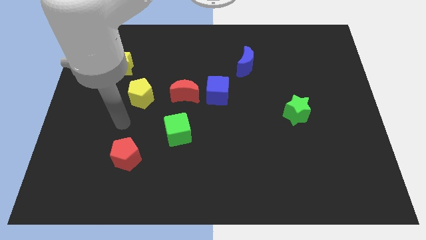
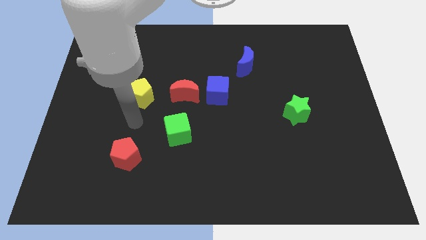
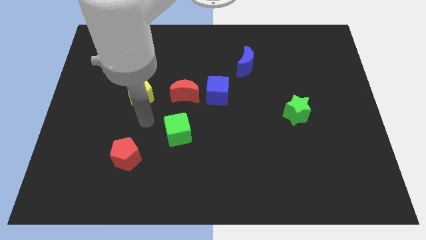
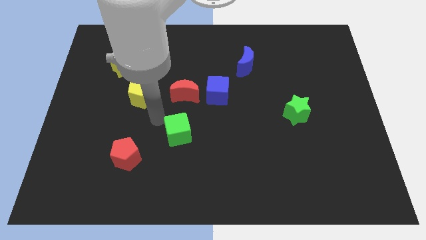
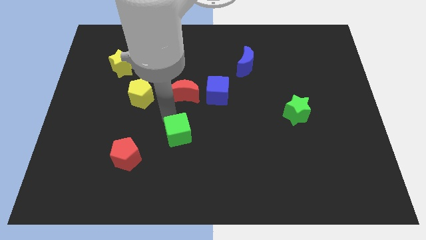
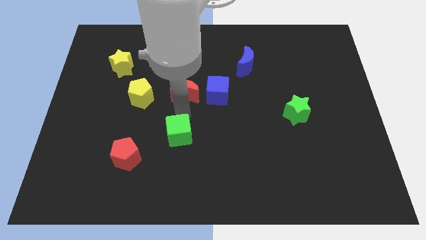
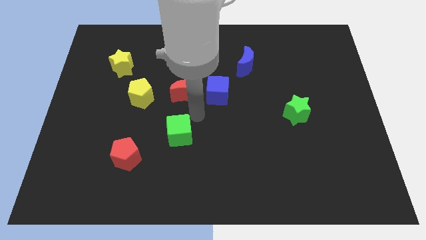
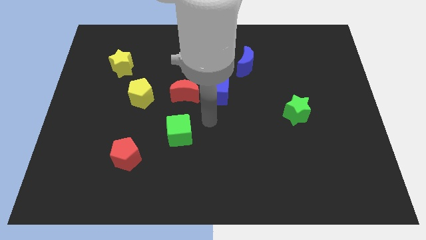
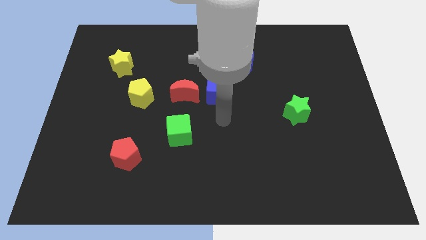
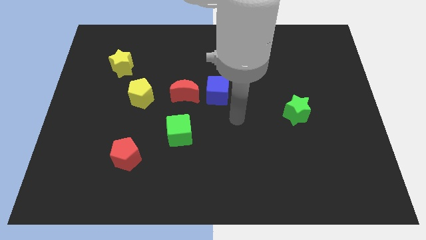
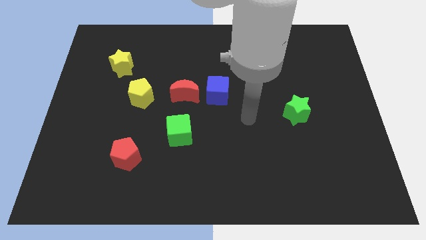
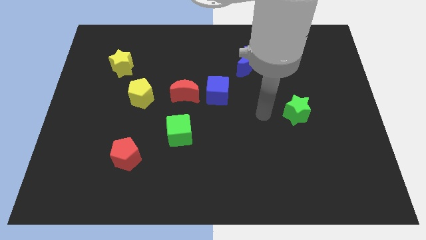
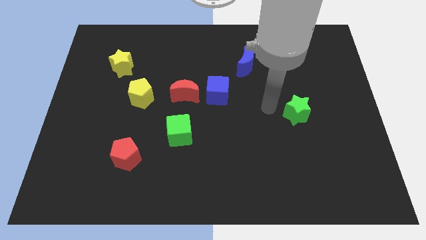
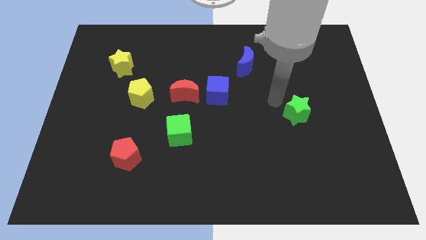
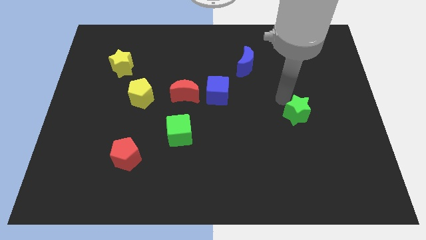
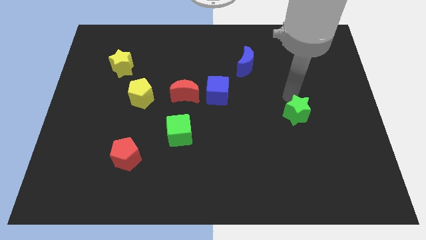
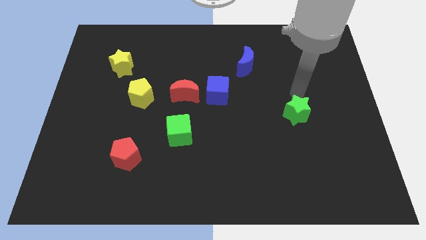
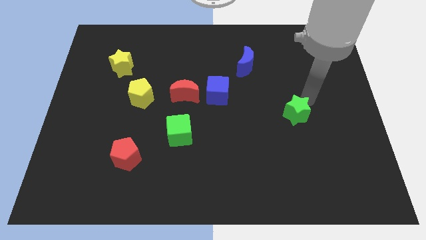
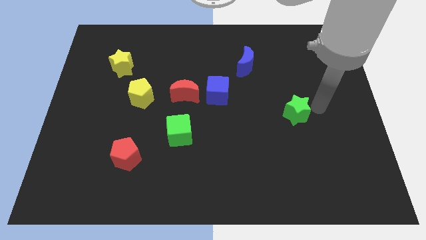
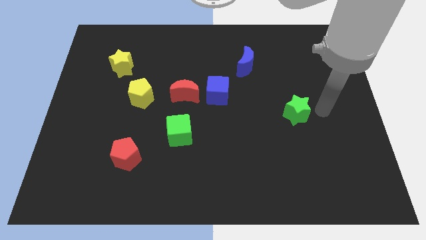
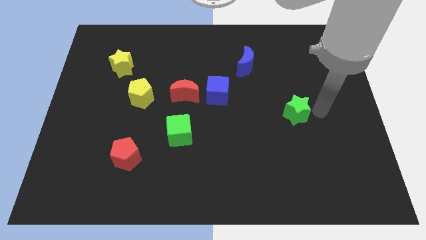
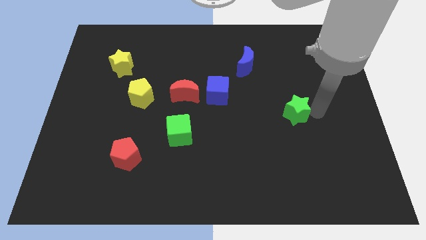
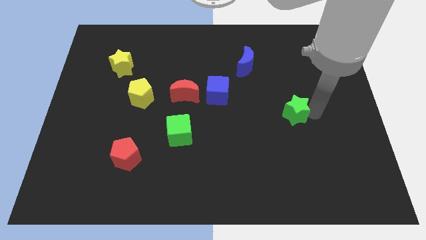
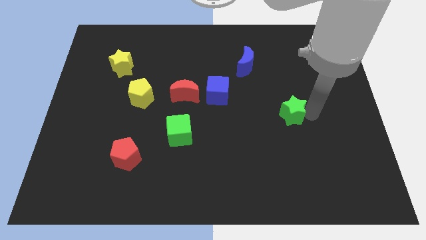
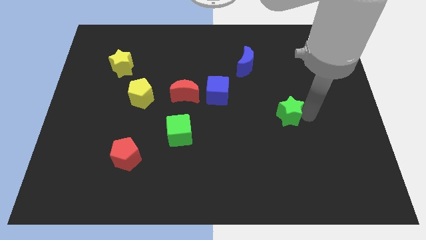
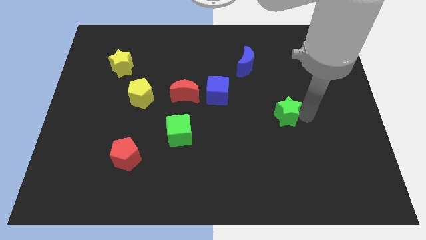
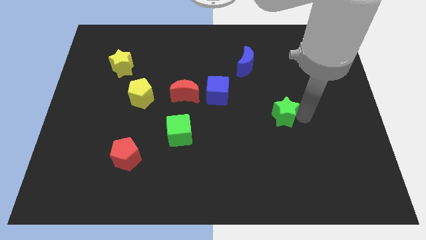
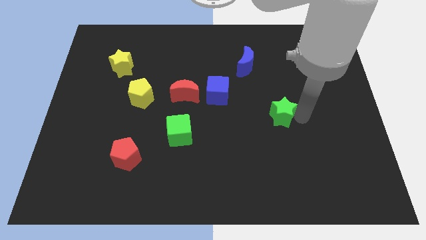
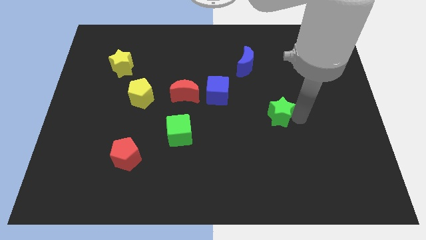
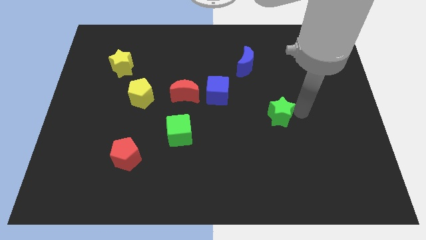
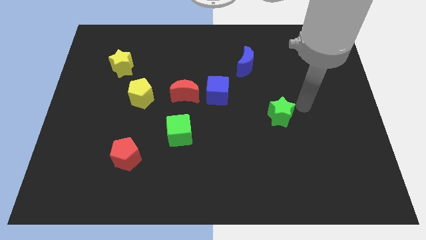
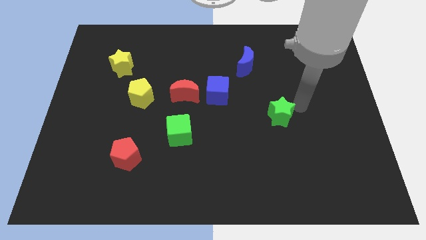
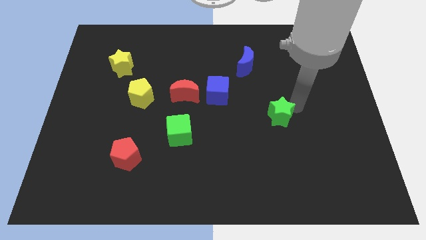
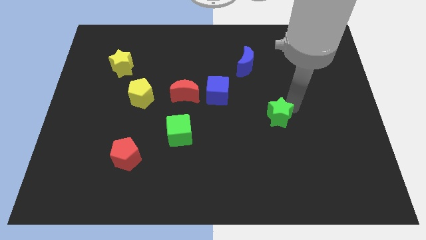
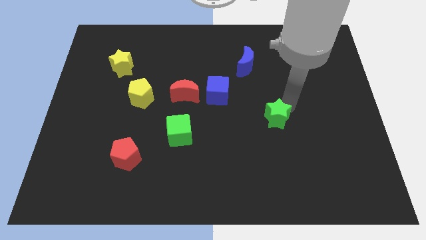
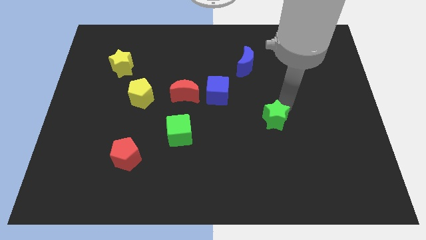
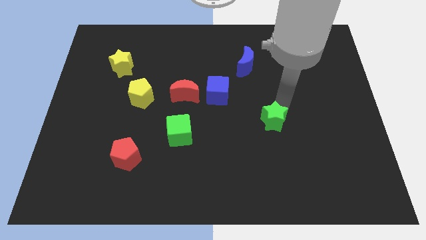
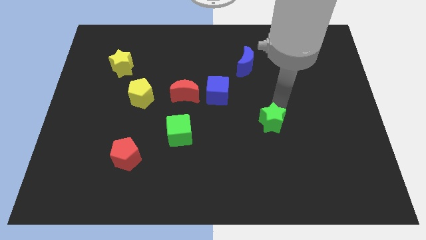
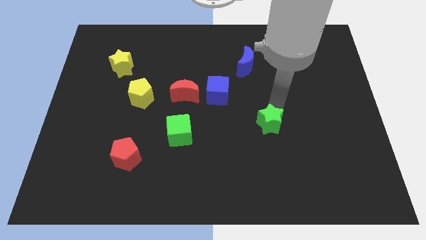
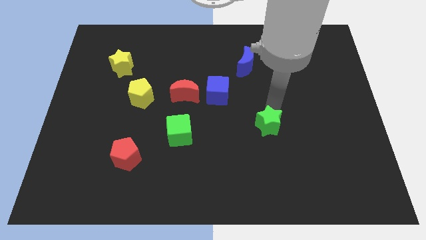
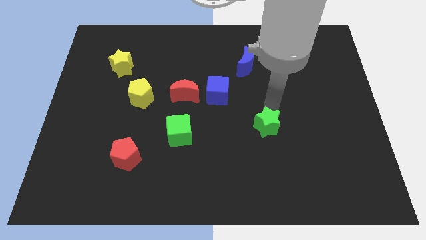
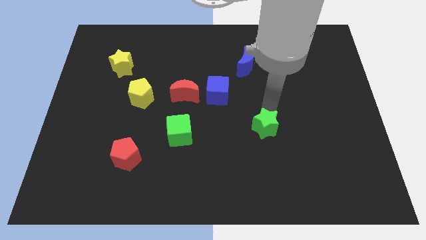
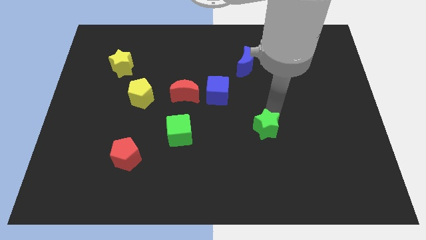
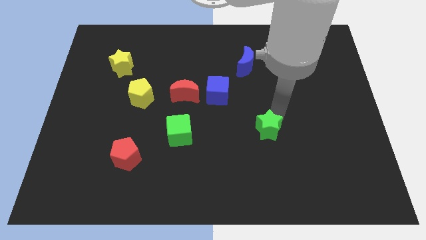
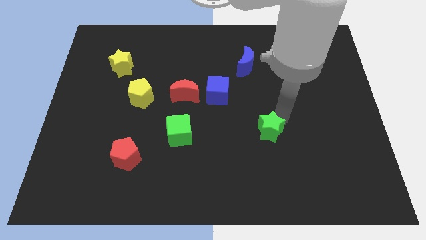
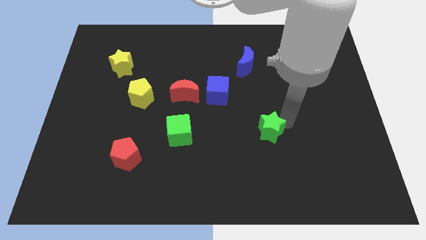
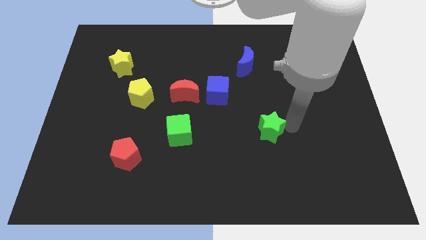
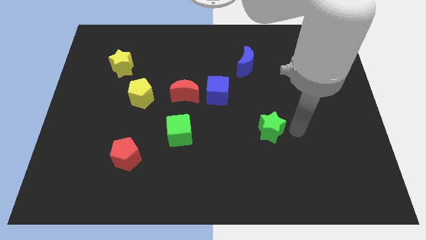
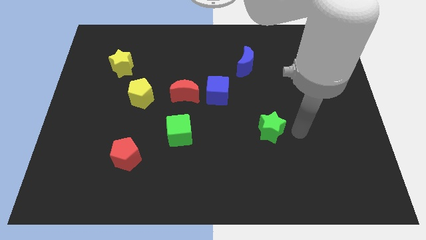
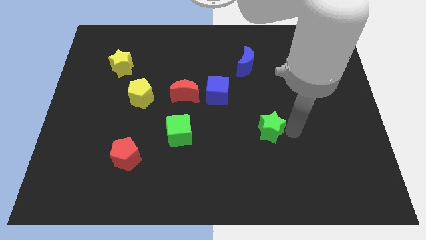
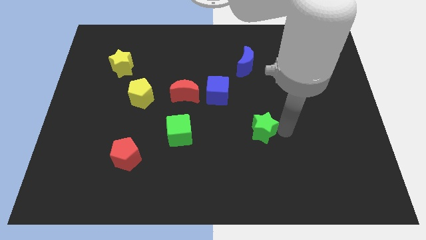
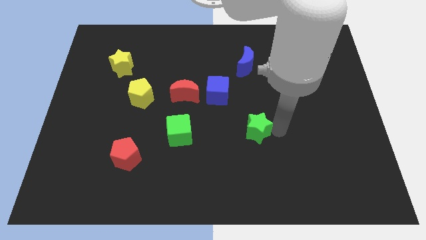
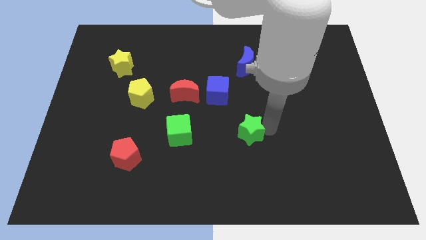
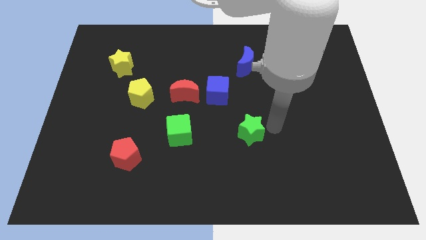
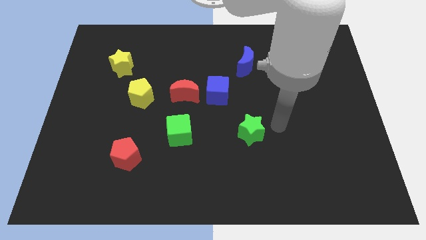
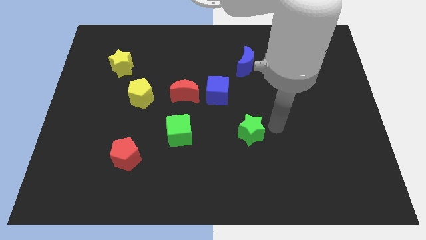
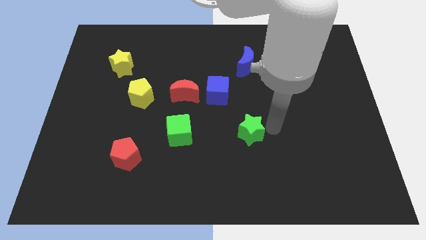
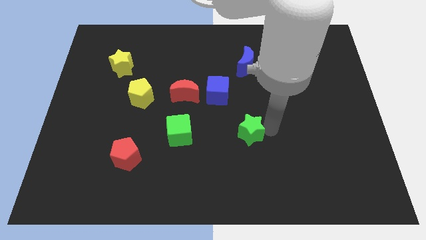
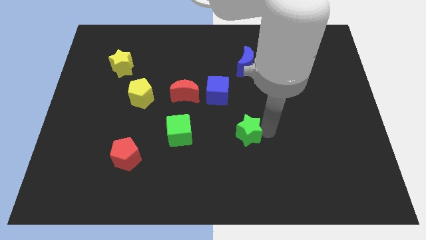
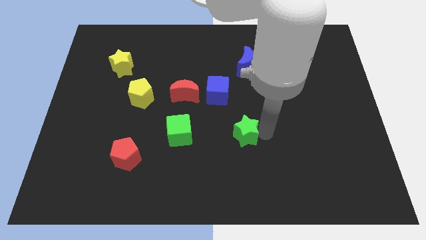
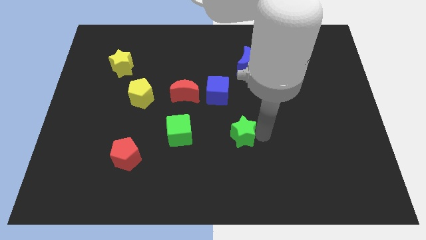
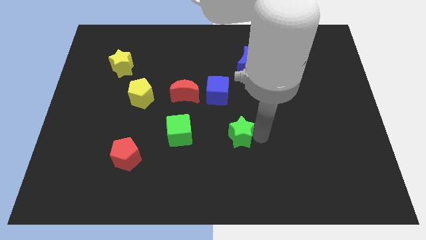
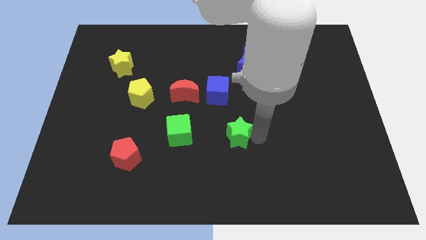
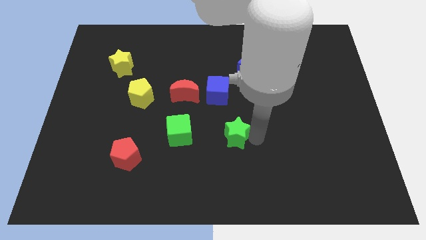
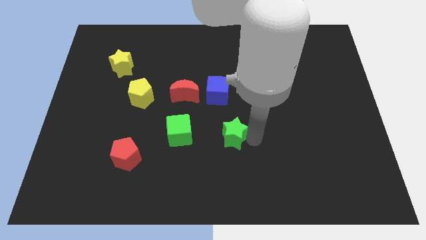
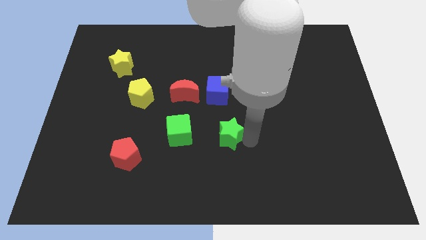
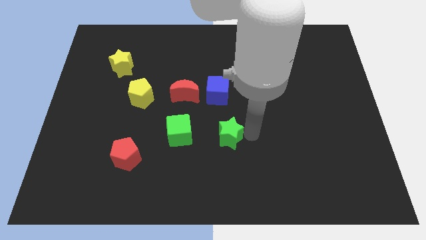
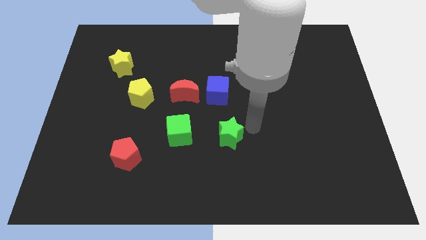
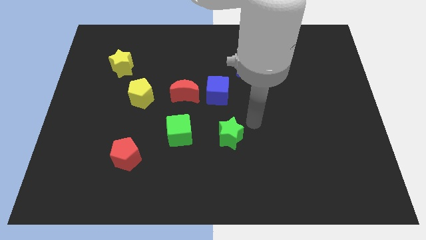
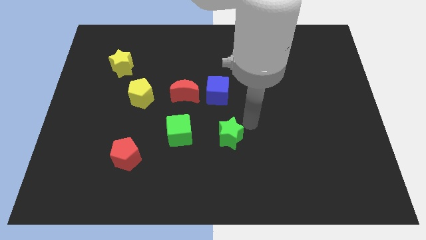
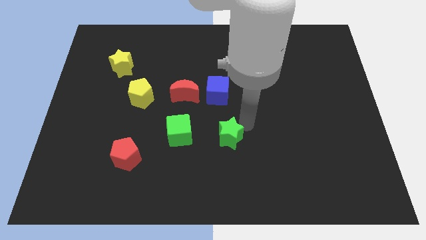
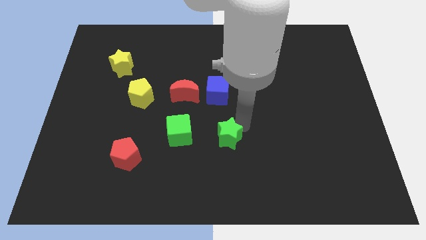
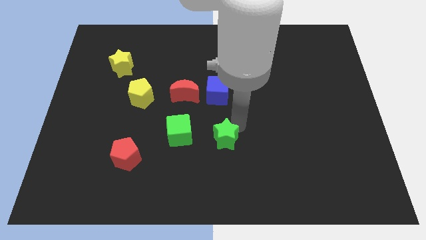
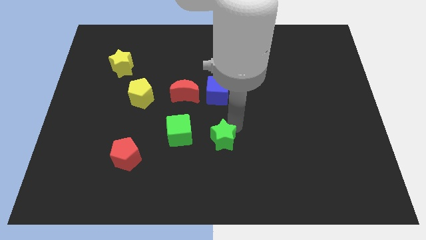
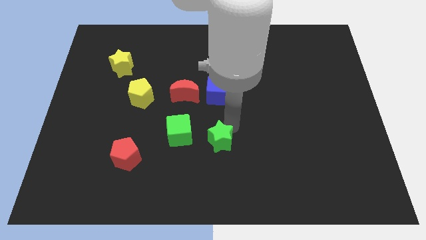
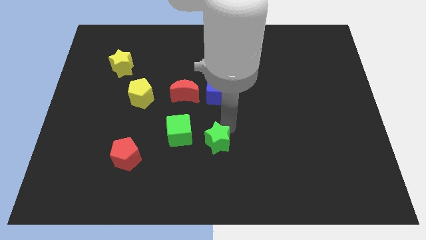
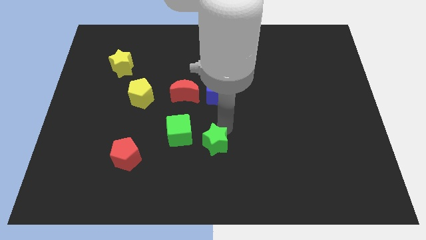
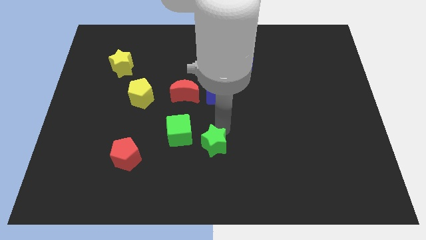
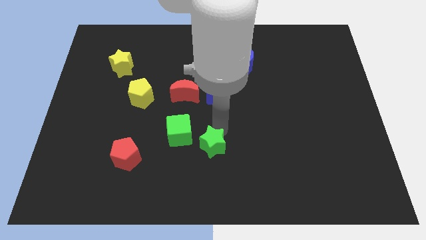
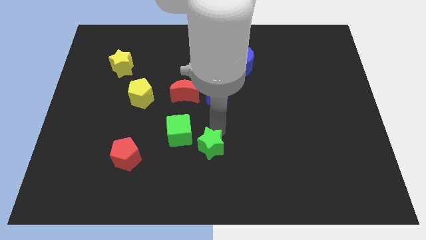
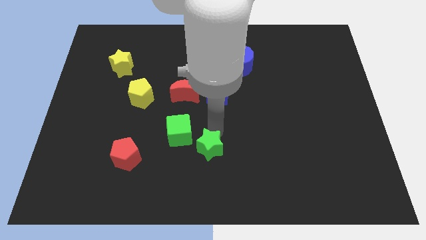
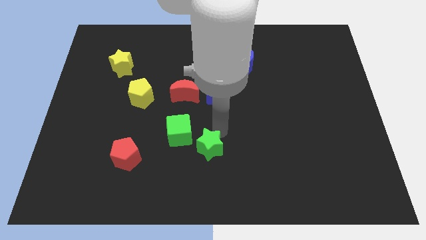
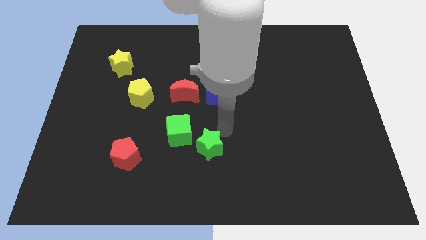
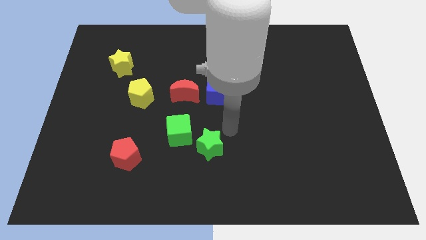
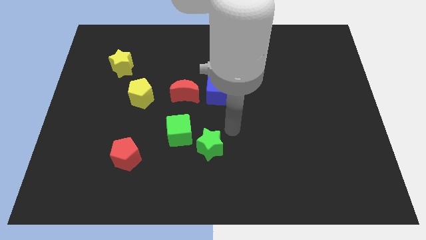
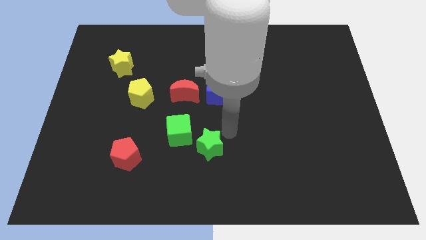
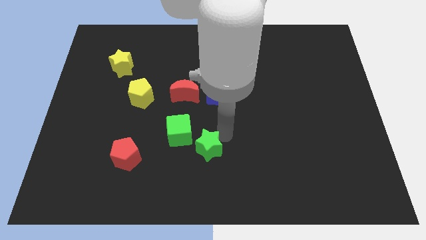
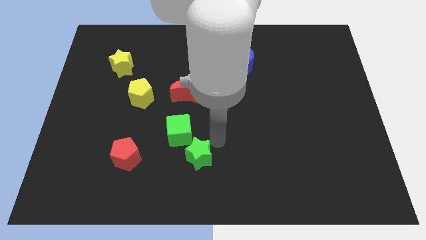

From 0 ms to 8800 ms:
slide the green star below the green cube
